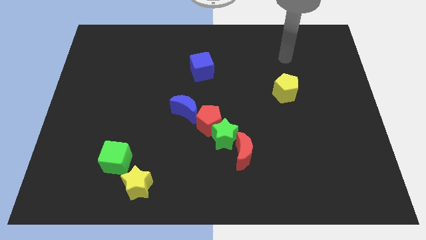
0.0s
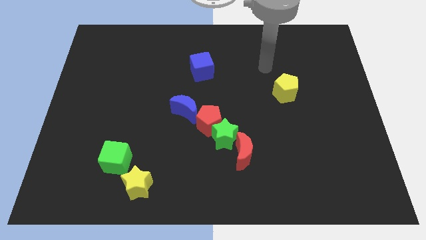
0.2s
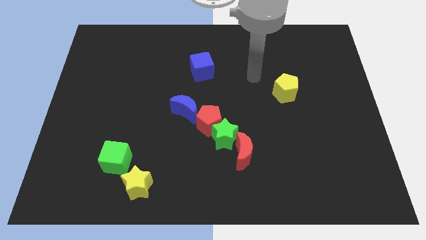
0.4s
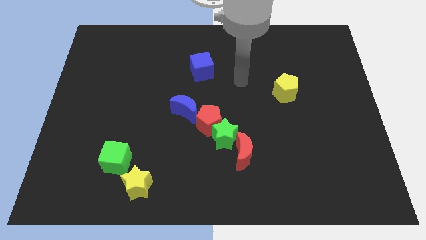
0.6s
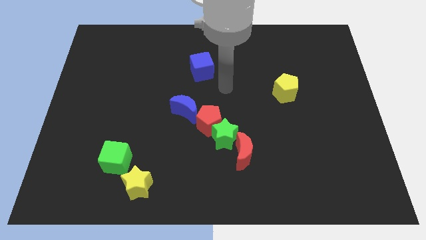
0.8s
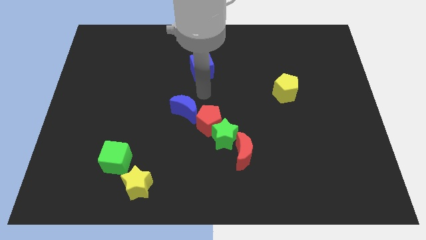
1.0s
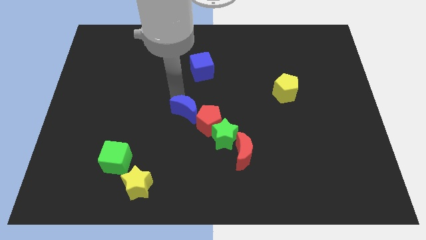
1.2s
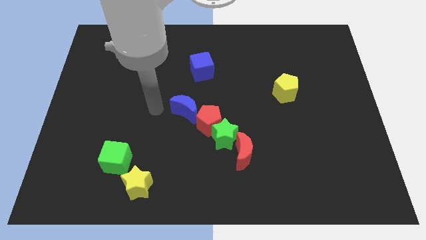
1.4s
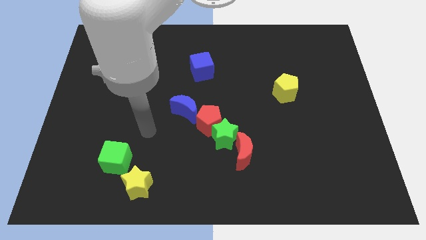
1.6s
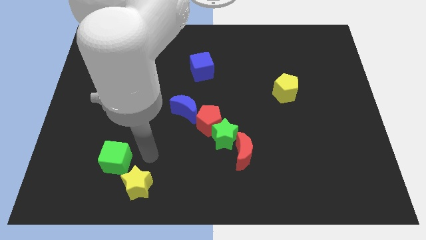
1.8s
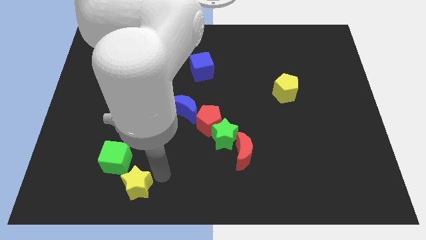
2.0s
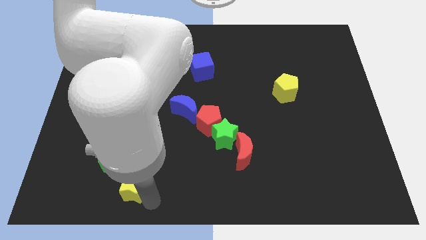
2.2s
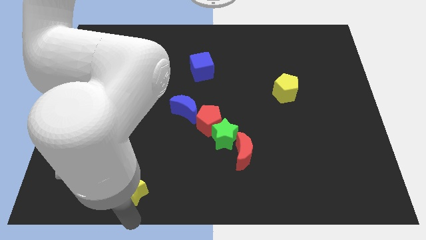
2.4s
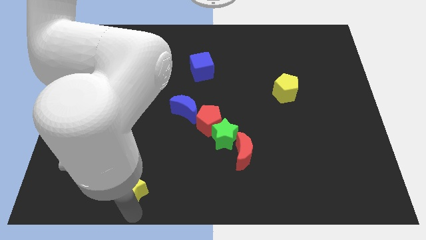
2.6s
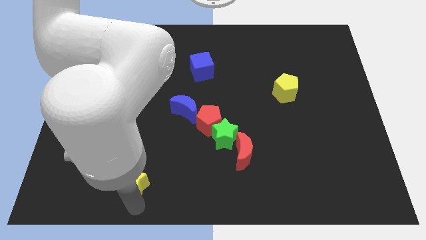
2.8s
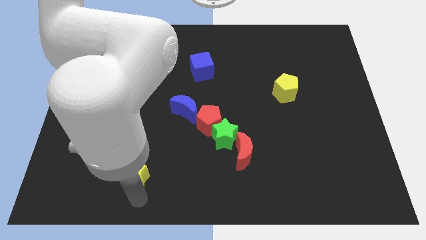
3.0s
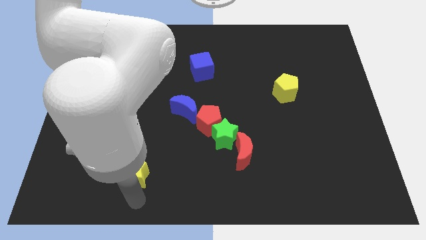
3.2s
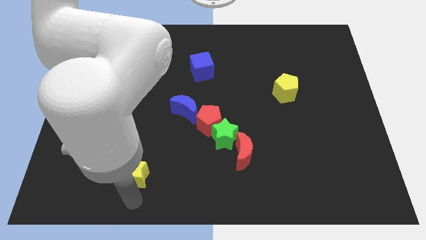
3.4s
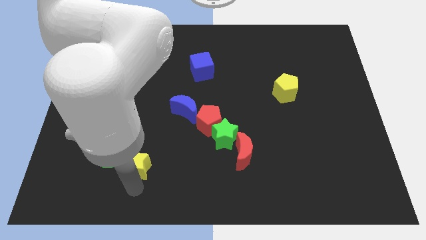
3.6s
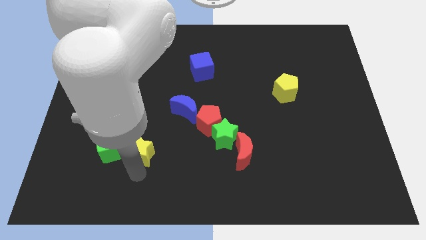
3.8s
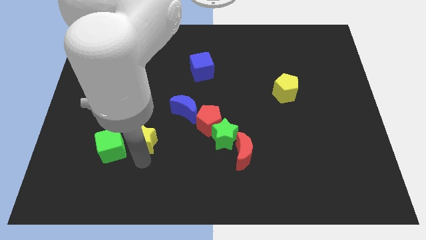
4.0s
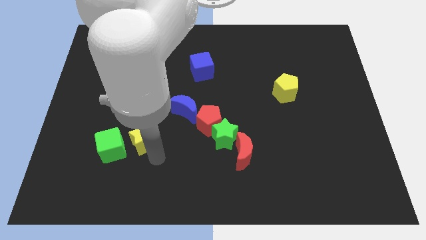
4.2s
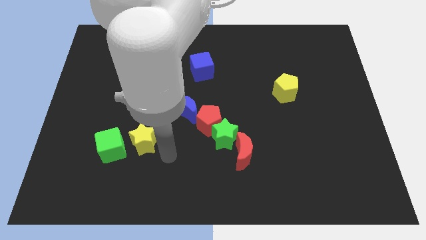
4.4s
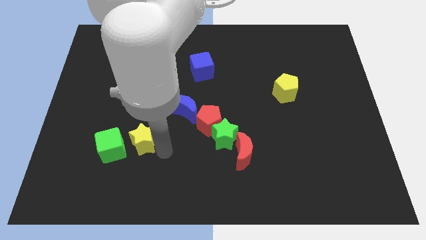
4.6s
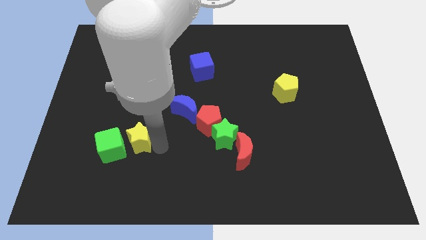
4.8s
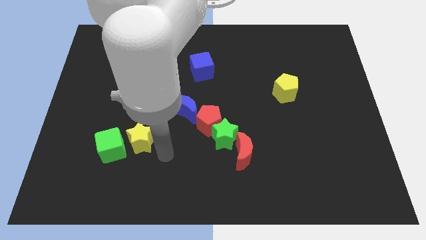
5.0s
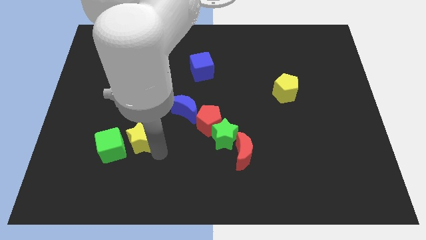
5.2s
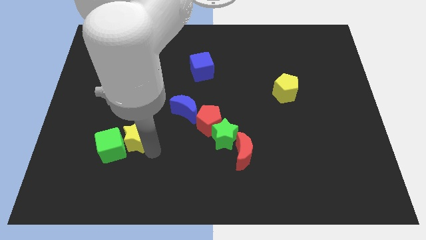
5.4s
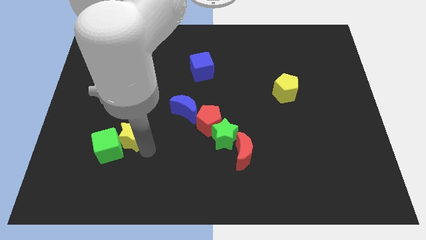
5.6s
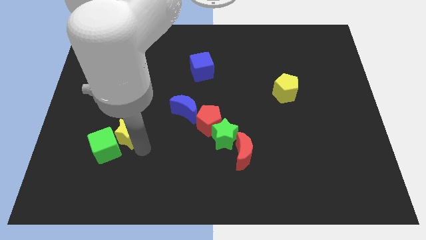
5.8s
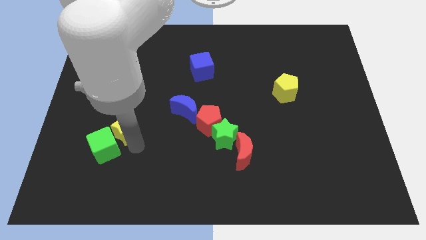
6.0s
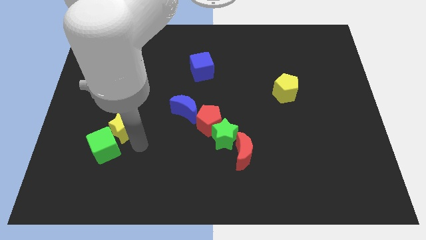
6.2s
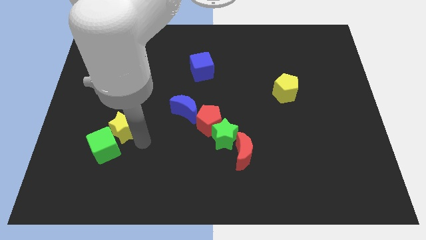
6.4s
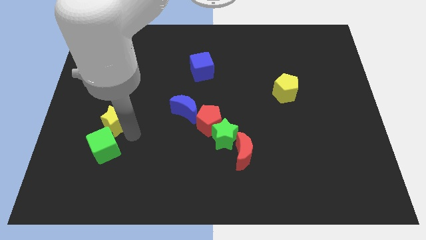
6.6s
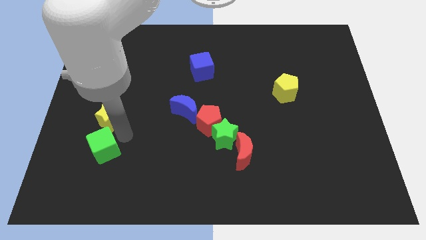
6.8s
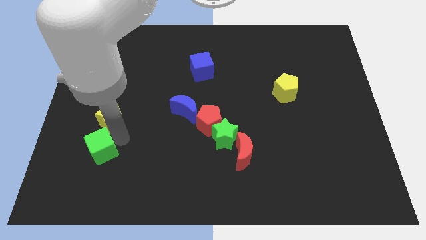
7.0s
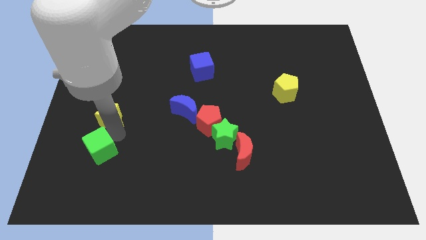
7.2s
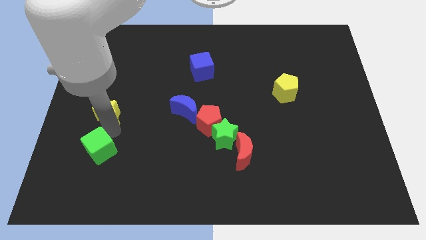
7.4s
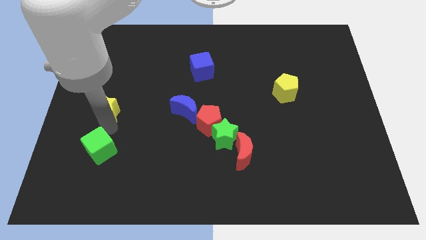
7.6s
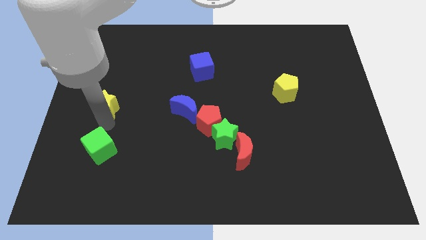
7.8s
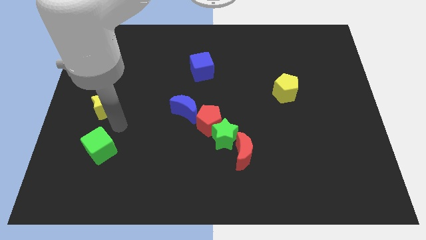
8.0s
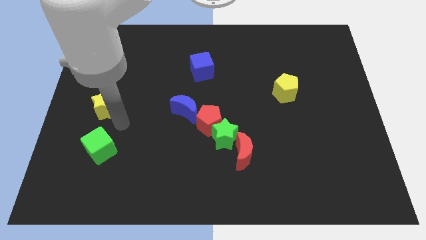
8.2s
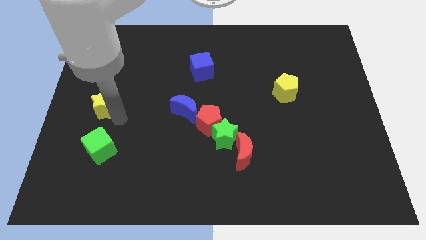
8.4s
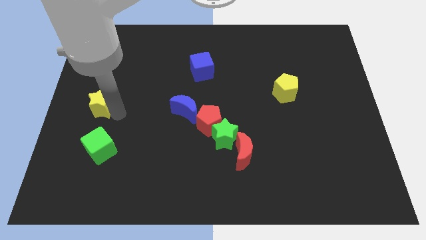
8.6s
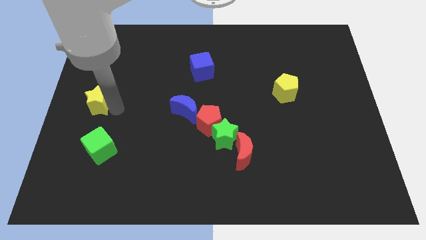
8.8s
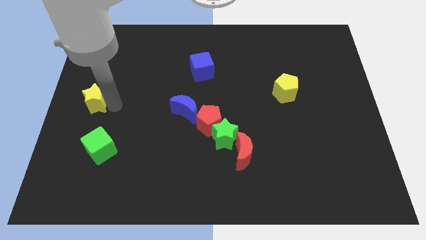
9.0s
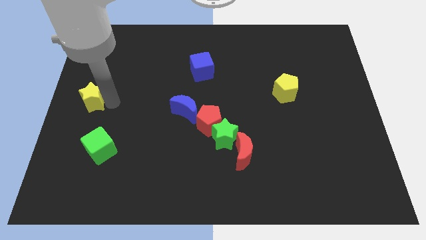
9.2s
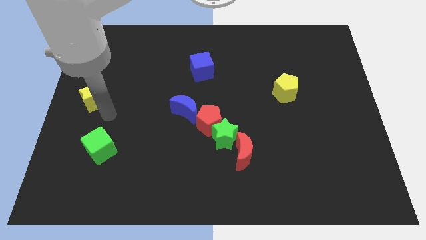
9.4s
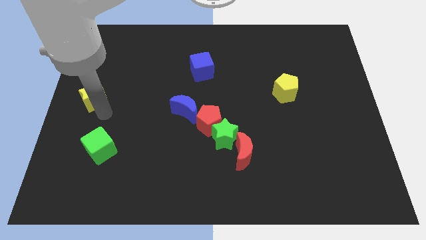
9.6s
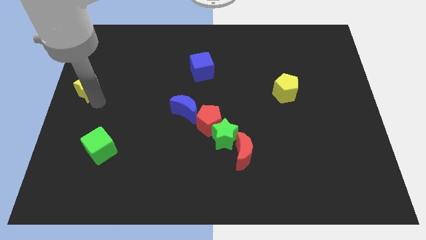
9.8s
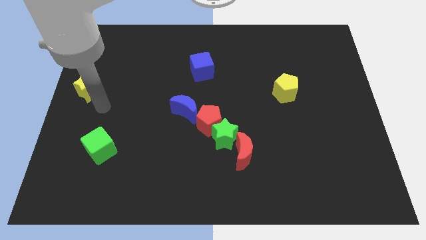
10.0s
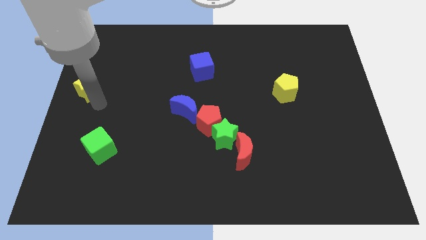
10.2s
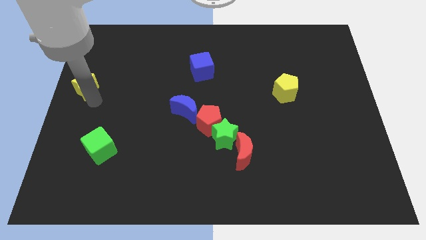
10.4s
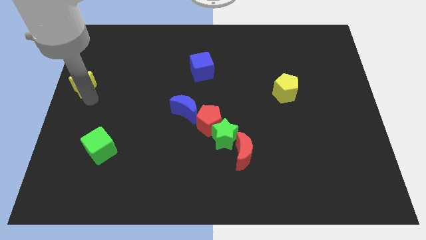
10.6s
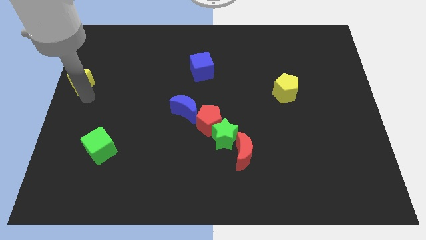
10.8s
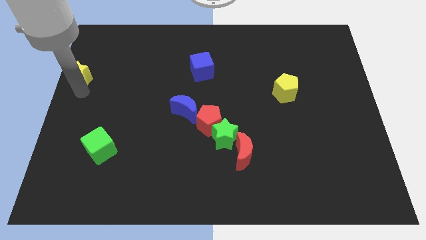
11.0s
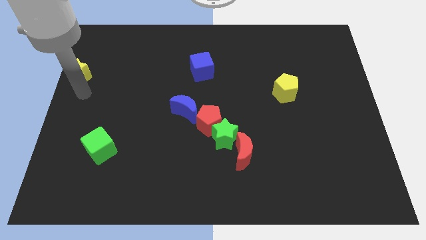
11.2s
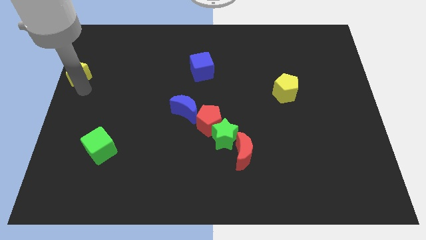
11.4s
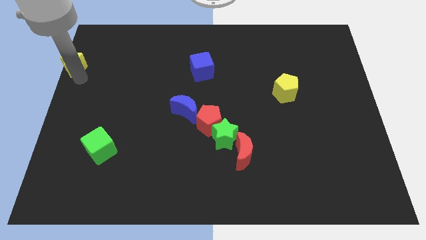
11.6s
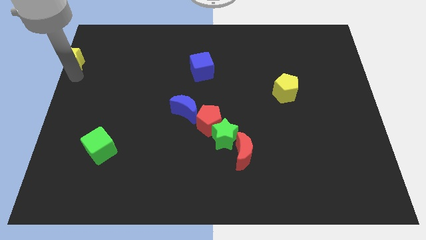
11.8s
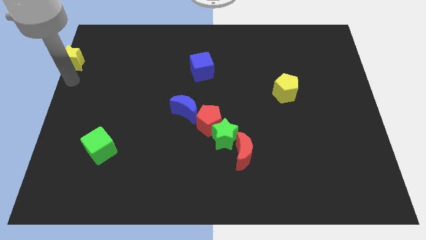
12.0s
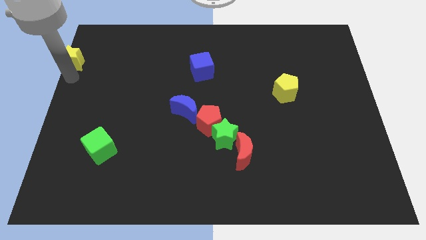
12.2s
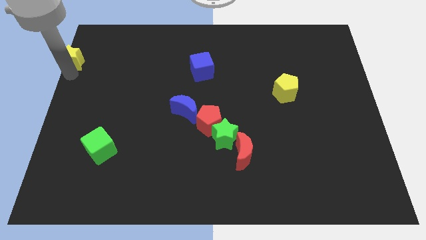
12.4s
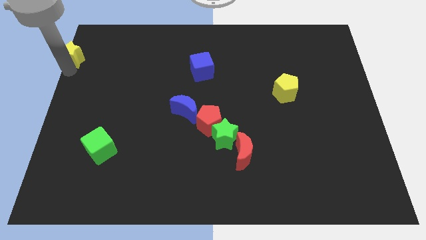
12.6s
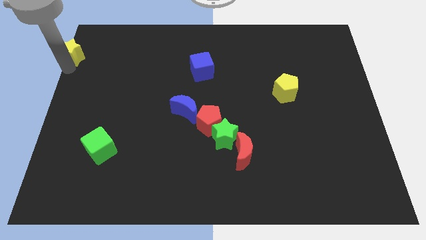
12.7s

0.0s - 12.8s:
slide the yellow star to the top left corner
